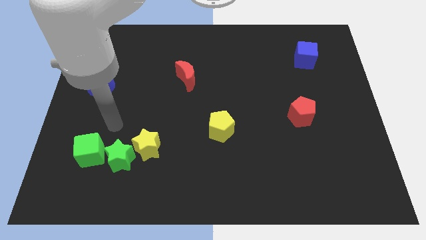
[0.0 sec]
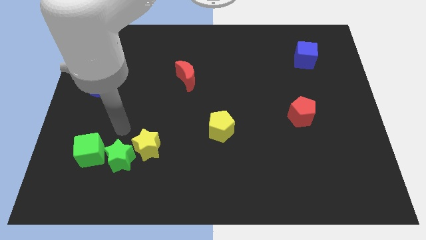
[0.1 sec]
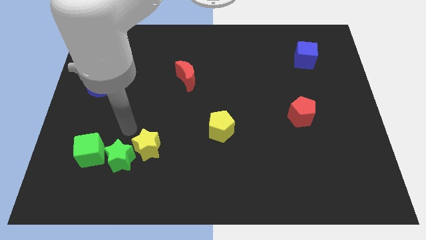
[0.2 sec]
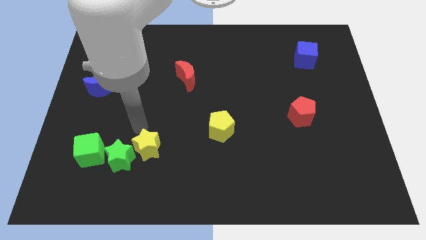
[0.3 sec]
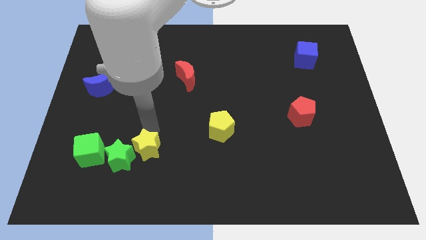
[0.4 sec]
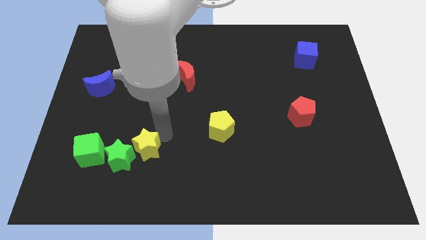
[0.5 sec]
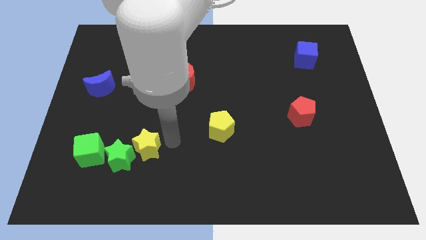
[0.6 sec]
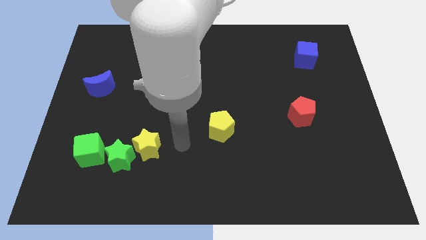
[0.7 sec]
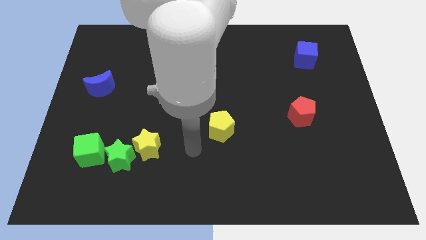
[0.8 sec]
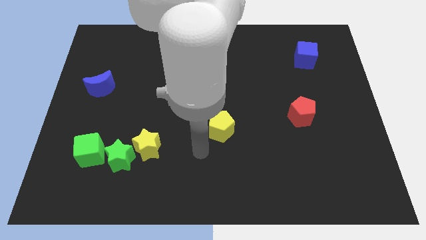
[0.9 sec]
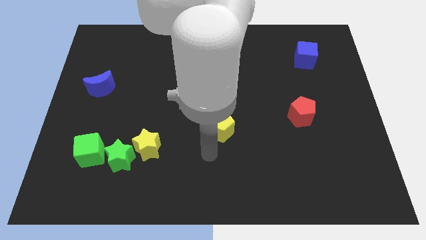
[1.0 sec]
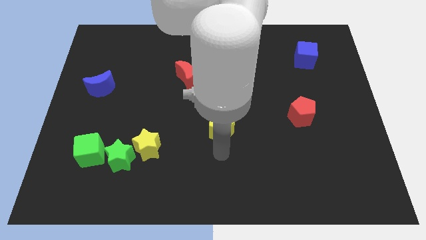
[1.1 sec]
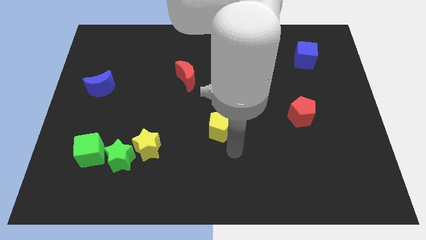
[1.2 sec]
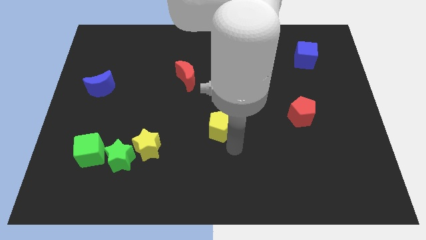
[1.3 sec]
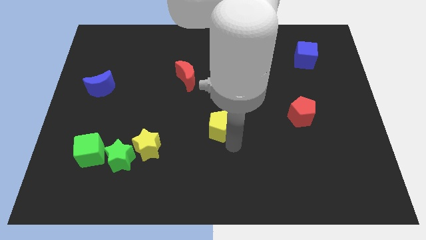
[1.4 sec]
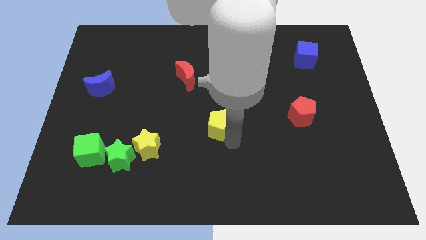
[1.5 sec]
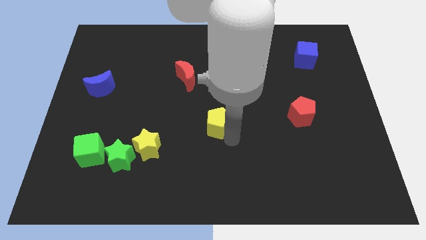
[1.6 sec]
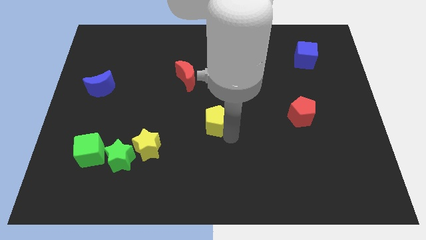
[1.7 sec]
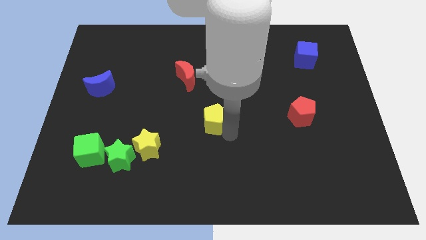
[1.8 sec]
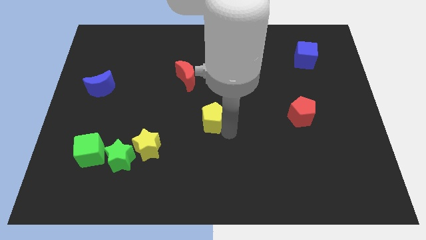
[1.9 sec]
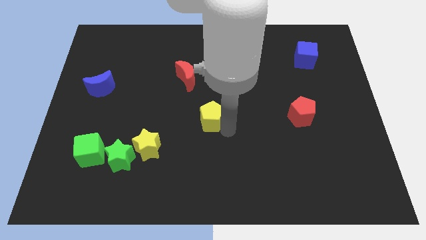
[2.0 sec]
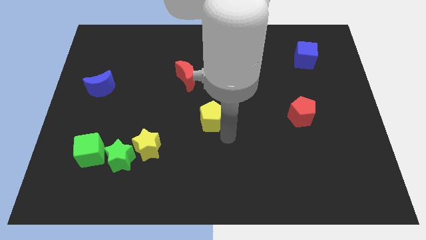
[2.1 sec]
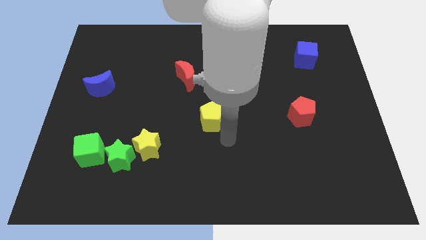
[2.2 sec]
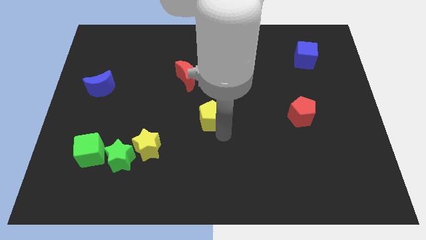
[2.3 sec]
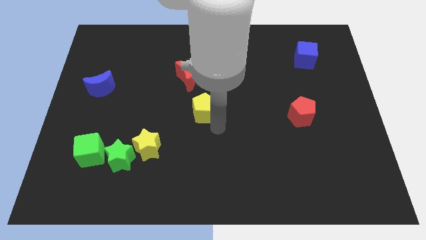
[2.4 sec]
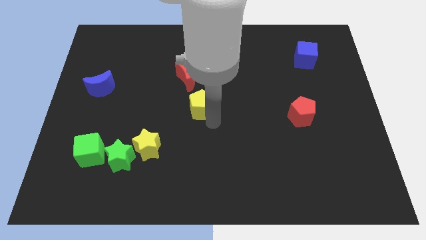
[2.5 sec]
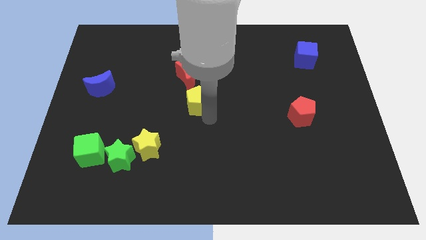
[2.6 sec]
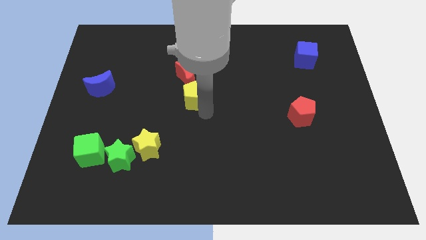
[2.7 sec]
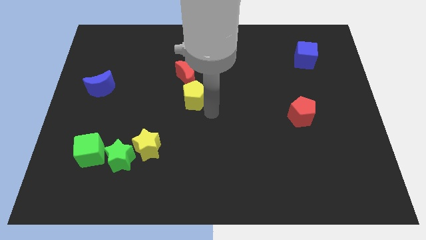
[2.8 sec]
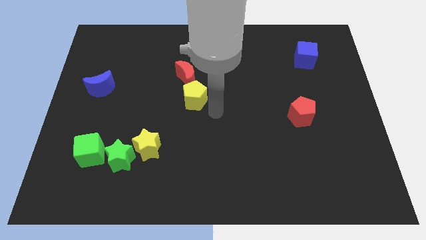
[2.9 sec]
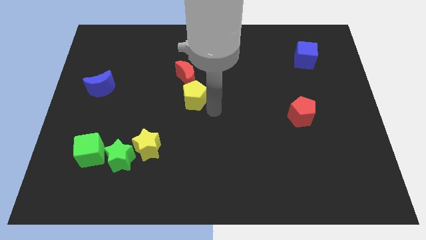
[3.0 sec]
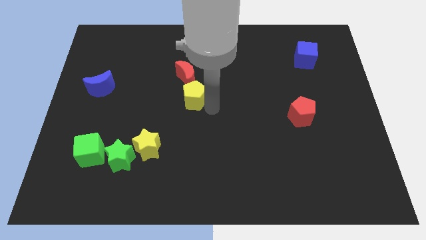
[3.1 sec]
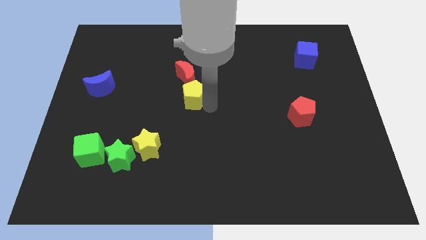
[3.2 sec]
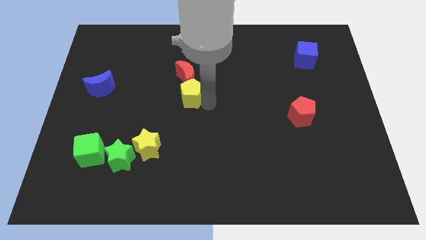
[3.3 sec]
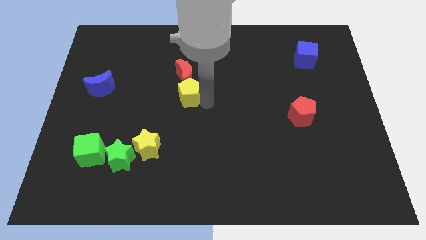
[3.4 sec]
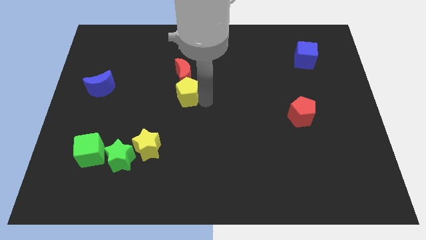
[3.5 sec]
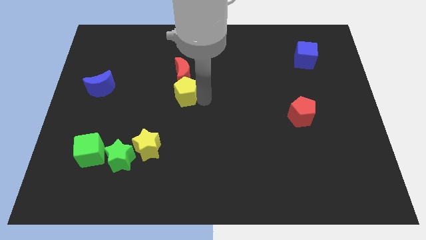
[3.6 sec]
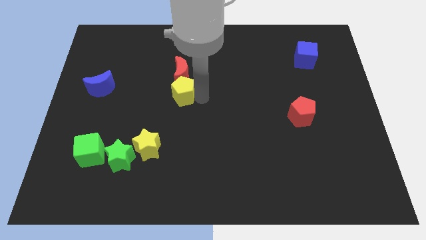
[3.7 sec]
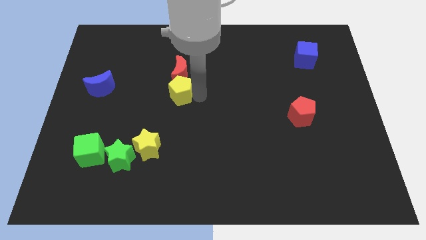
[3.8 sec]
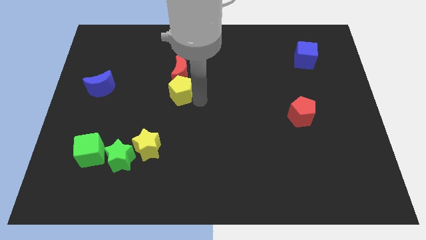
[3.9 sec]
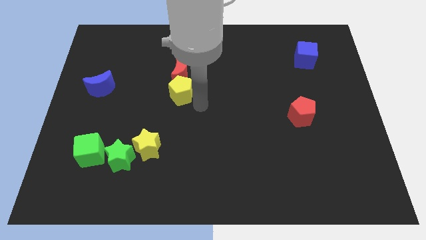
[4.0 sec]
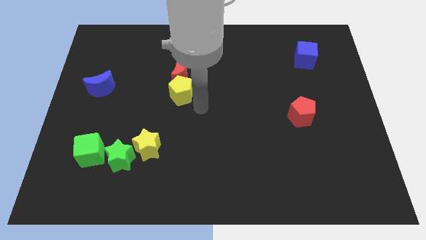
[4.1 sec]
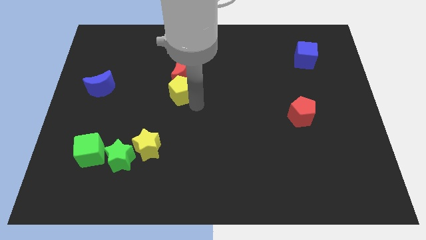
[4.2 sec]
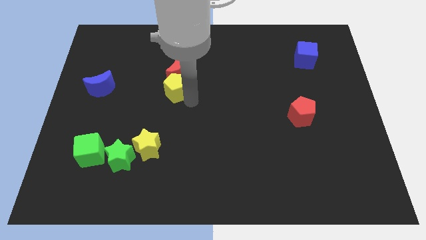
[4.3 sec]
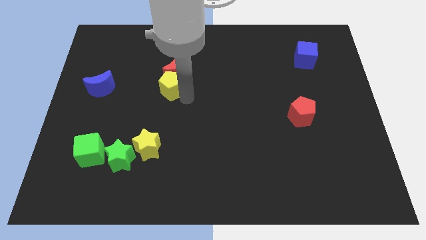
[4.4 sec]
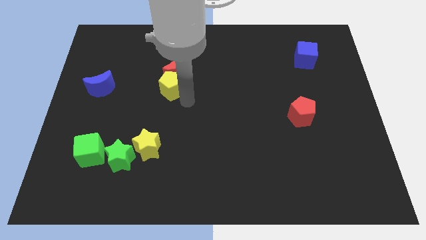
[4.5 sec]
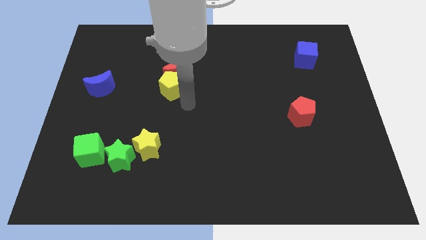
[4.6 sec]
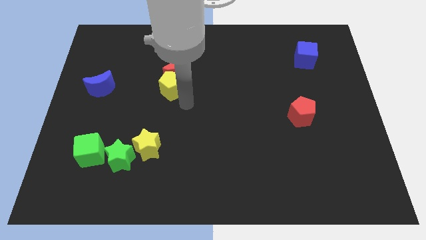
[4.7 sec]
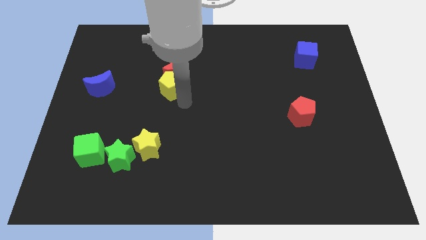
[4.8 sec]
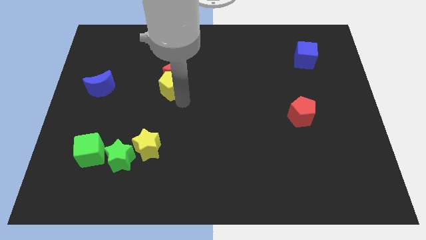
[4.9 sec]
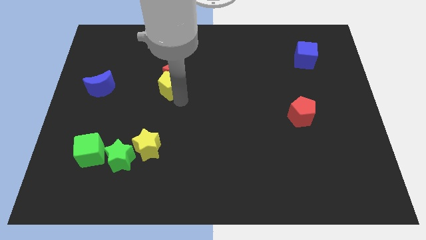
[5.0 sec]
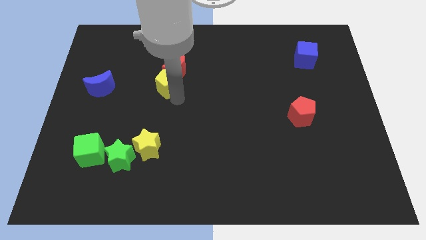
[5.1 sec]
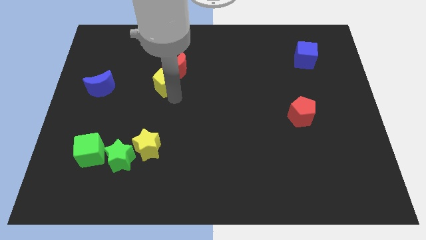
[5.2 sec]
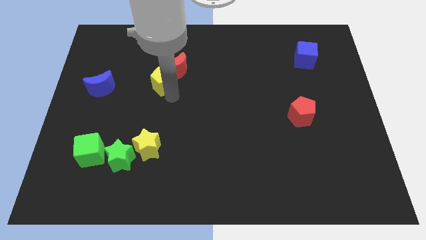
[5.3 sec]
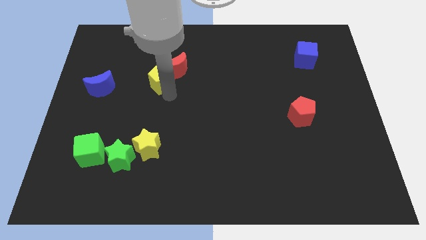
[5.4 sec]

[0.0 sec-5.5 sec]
move the yellow pentagon diagonally upwards and to the left

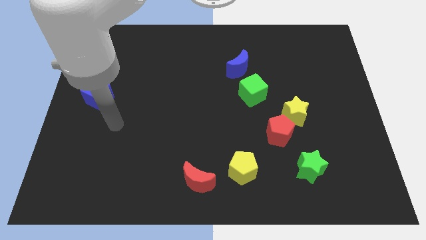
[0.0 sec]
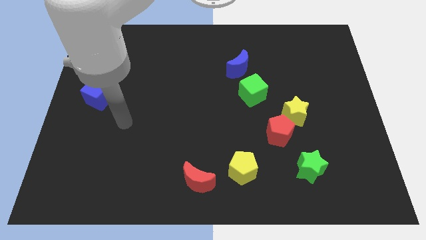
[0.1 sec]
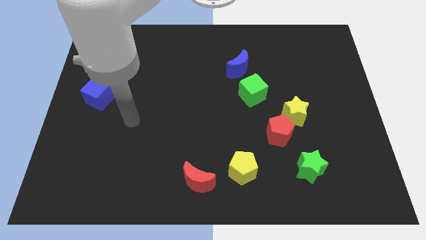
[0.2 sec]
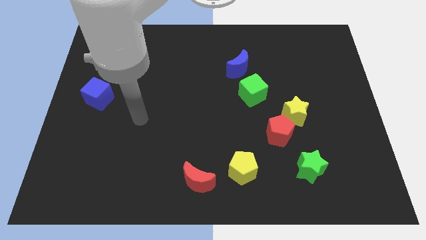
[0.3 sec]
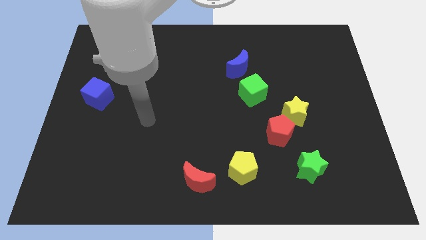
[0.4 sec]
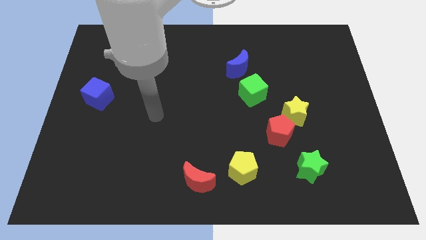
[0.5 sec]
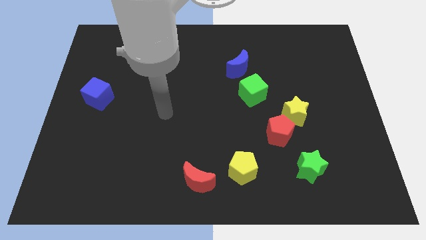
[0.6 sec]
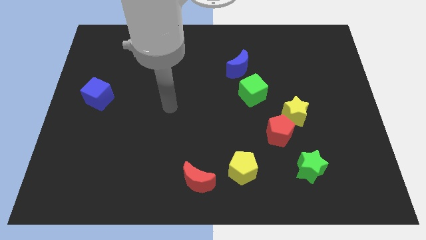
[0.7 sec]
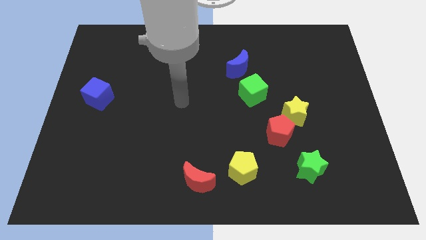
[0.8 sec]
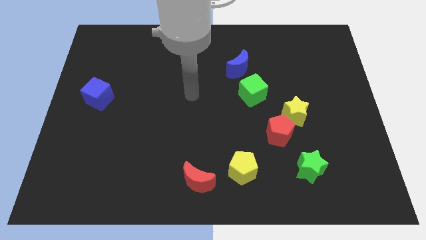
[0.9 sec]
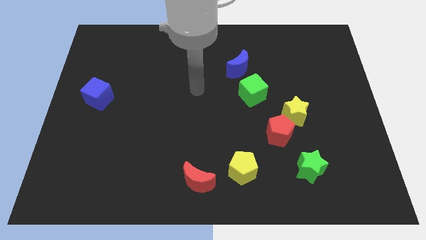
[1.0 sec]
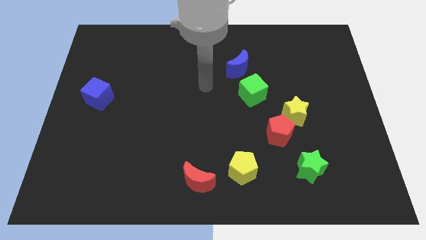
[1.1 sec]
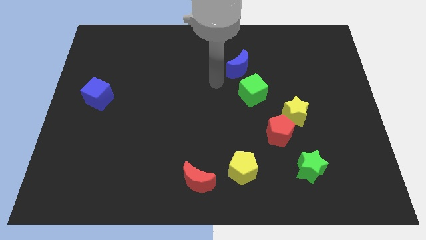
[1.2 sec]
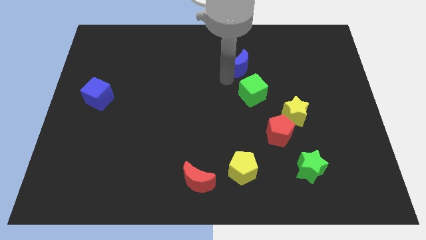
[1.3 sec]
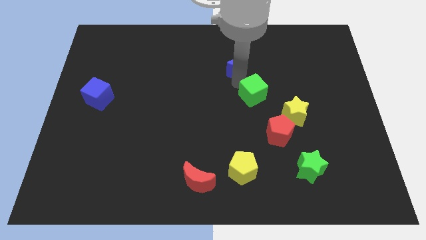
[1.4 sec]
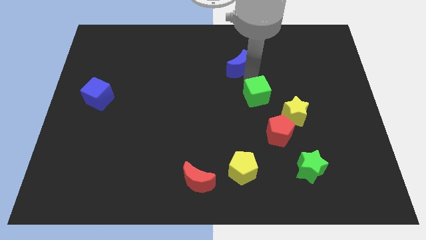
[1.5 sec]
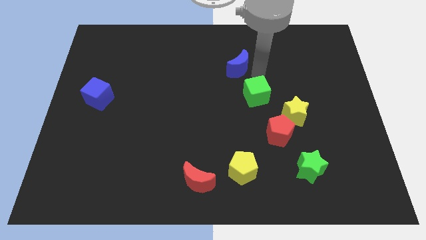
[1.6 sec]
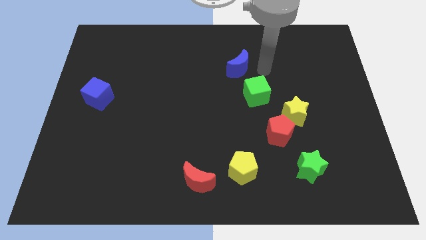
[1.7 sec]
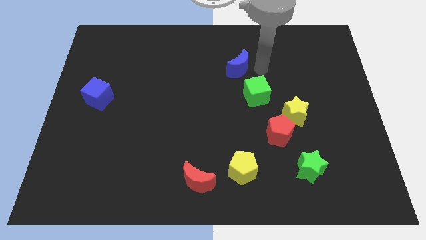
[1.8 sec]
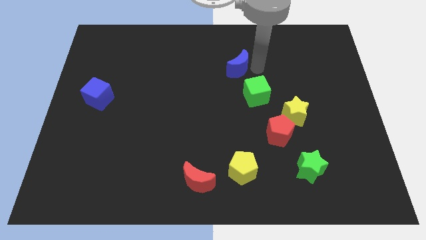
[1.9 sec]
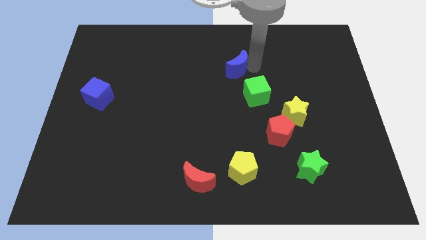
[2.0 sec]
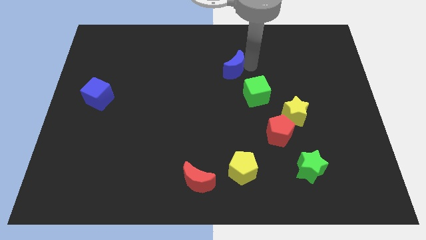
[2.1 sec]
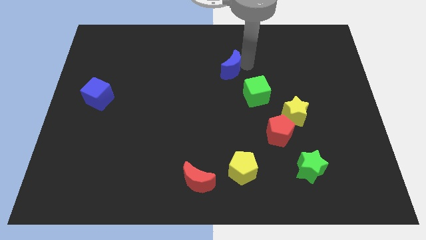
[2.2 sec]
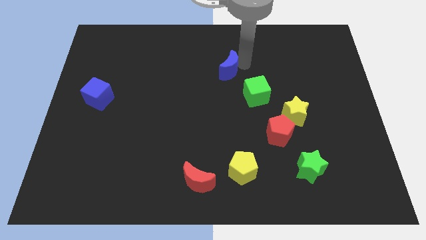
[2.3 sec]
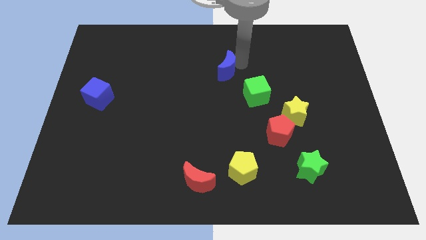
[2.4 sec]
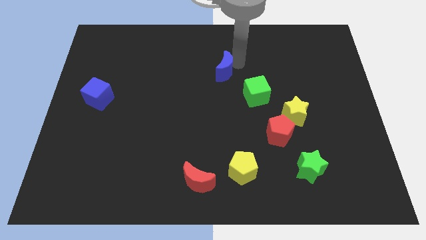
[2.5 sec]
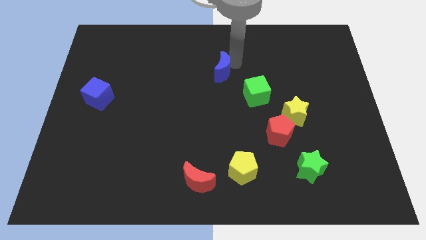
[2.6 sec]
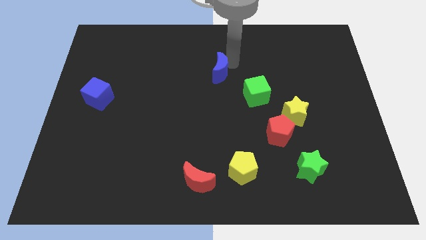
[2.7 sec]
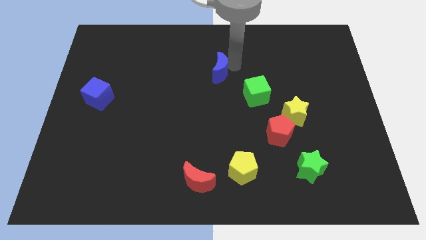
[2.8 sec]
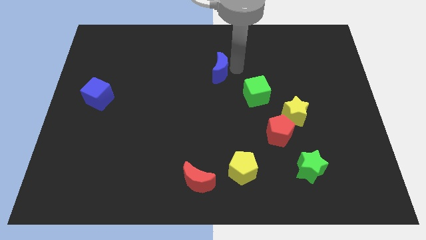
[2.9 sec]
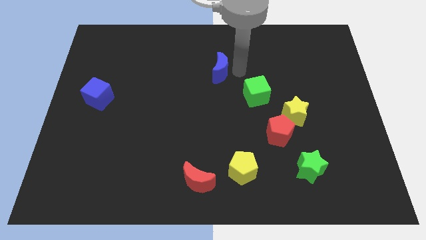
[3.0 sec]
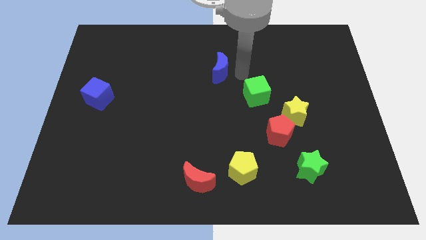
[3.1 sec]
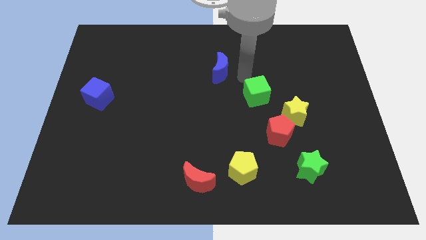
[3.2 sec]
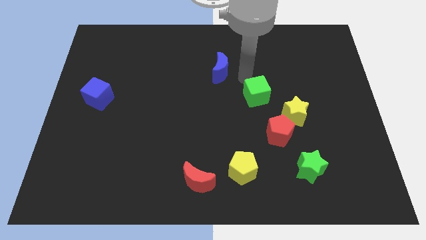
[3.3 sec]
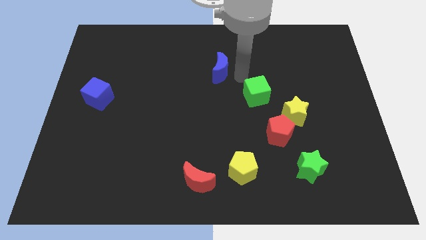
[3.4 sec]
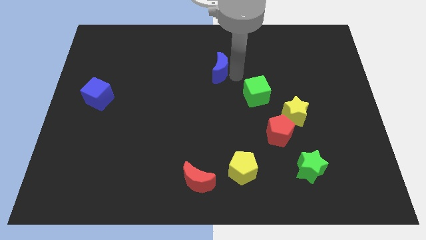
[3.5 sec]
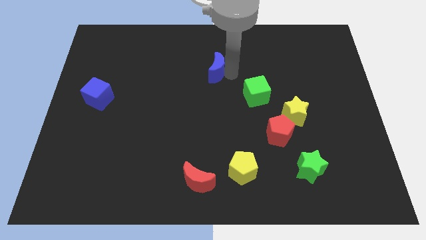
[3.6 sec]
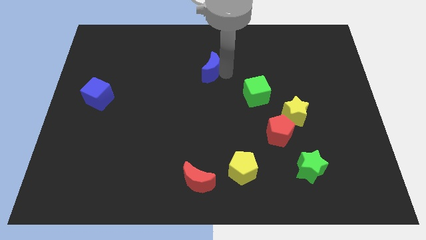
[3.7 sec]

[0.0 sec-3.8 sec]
push the blue moon a bit left
